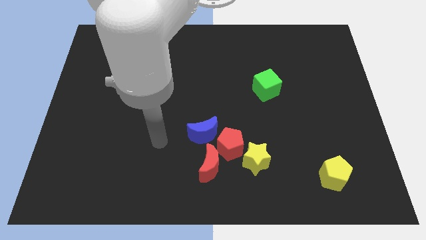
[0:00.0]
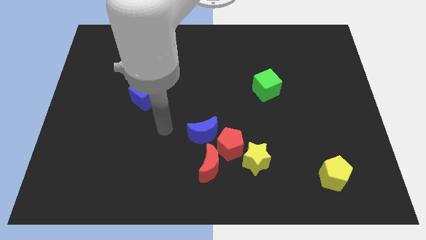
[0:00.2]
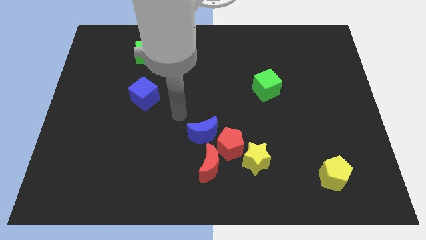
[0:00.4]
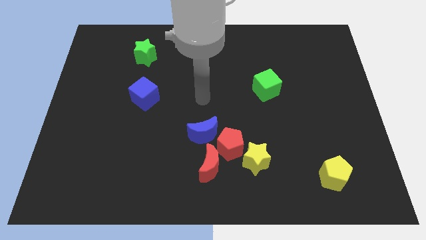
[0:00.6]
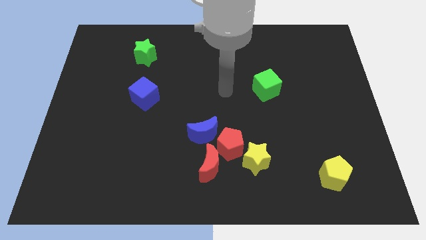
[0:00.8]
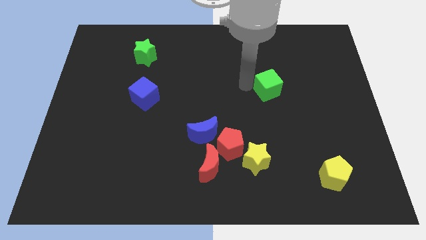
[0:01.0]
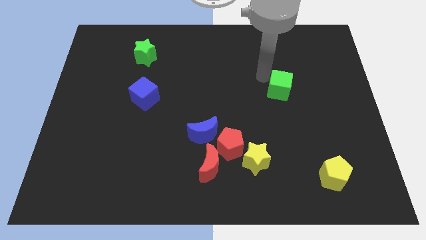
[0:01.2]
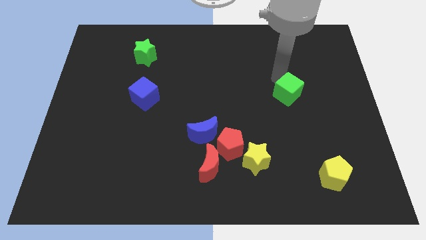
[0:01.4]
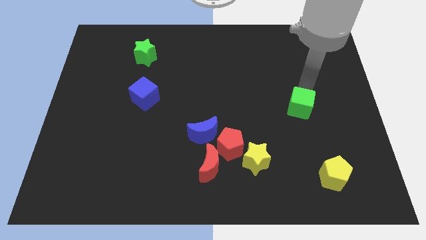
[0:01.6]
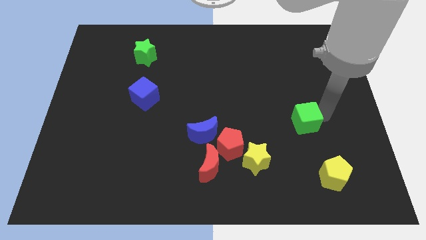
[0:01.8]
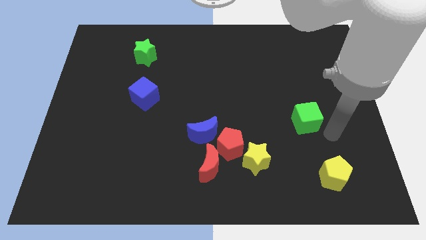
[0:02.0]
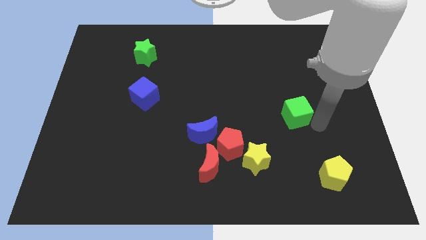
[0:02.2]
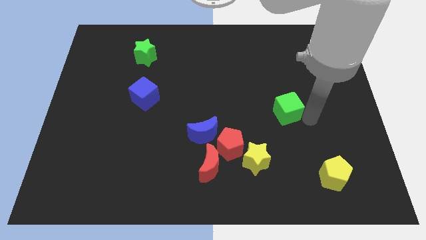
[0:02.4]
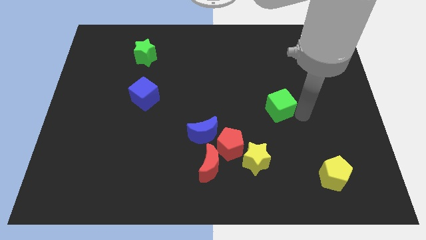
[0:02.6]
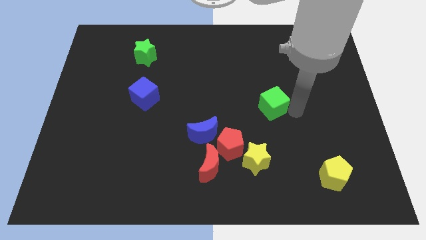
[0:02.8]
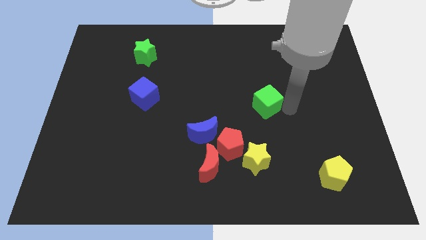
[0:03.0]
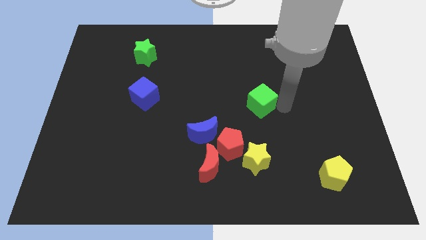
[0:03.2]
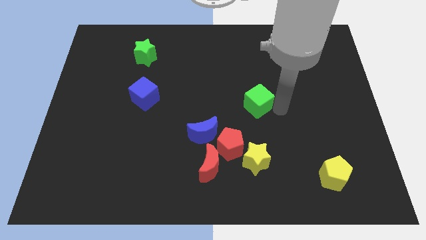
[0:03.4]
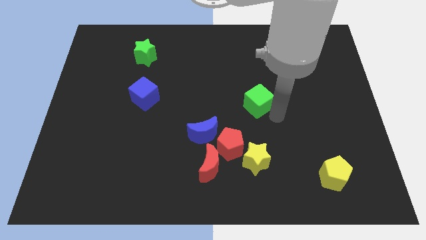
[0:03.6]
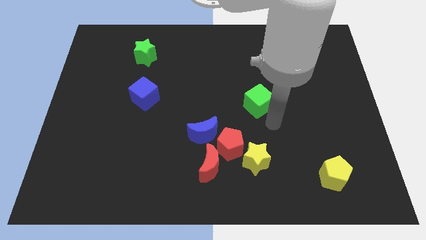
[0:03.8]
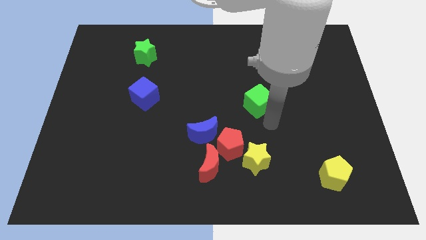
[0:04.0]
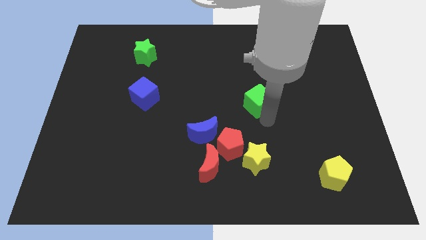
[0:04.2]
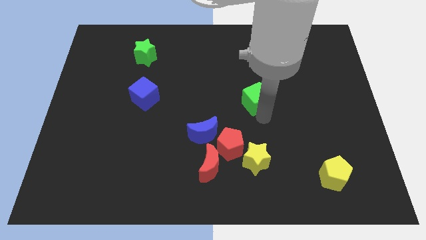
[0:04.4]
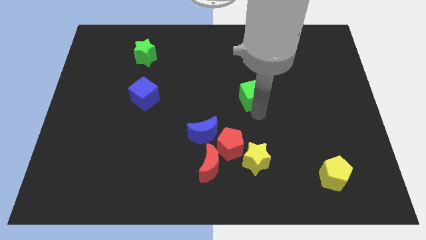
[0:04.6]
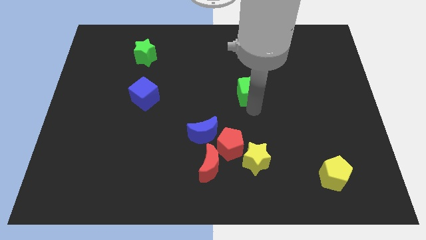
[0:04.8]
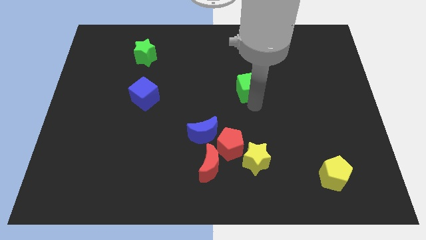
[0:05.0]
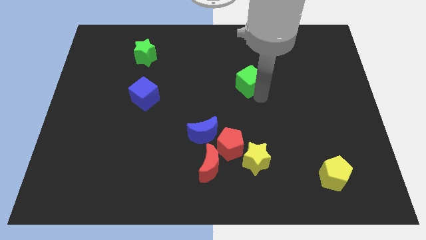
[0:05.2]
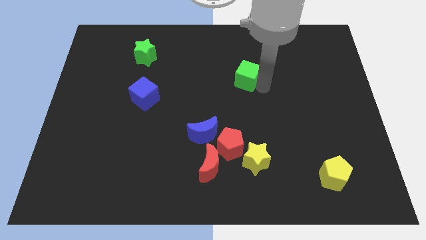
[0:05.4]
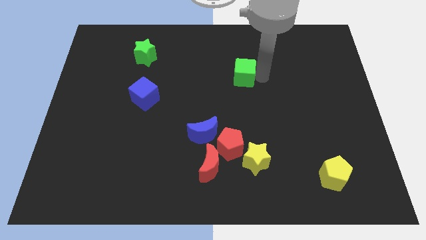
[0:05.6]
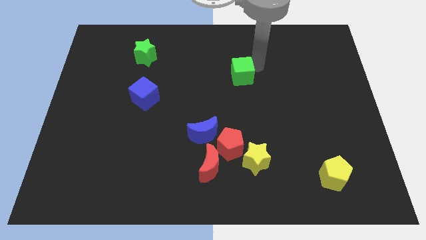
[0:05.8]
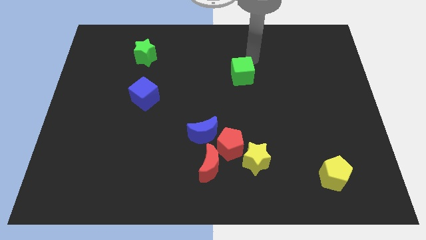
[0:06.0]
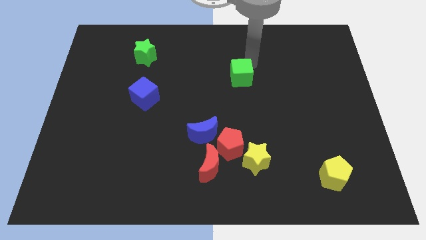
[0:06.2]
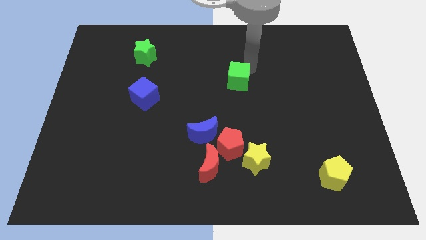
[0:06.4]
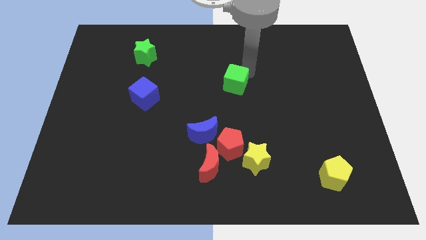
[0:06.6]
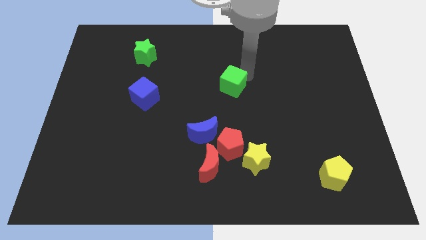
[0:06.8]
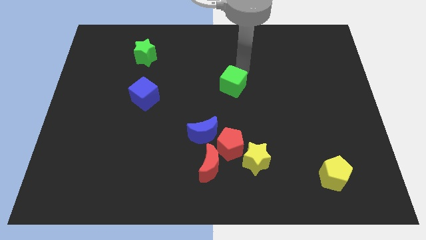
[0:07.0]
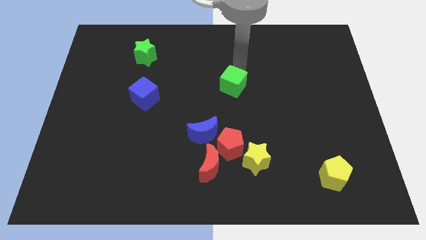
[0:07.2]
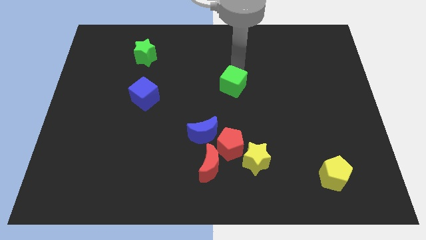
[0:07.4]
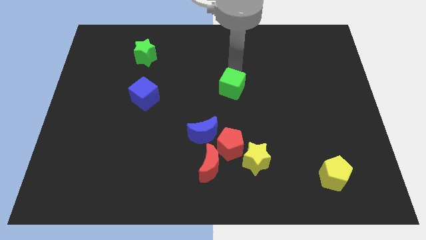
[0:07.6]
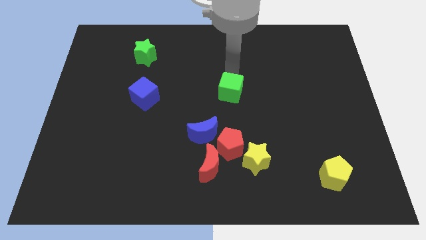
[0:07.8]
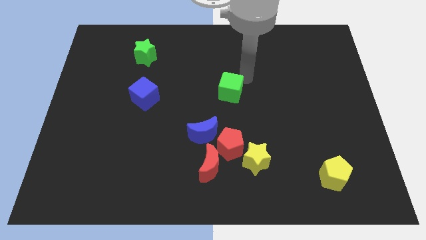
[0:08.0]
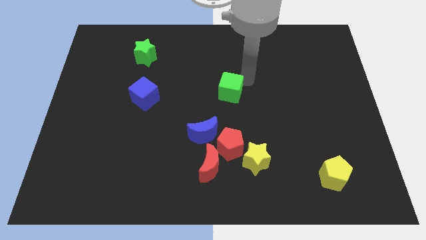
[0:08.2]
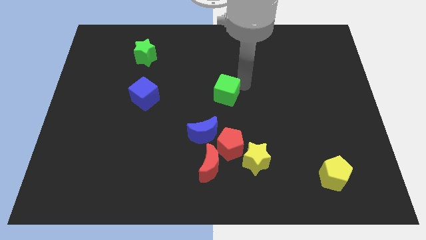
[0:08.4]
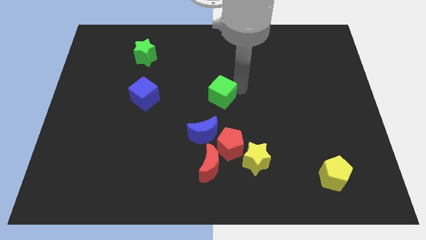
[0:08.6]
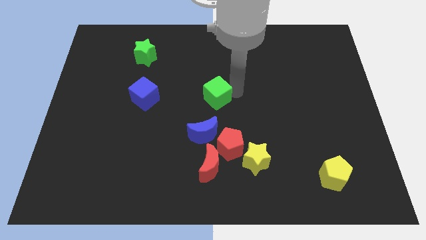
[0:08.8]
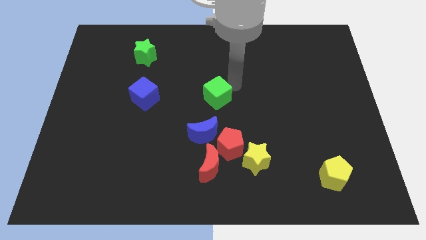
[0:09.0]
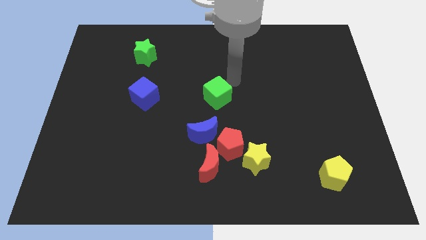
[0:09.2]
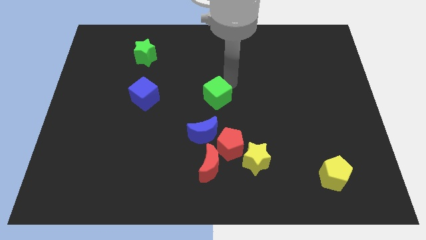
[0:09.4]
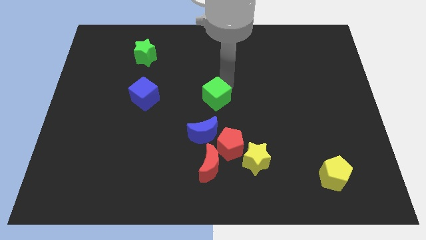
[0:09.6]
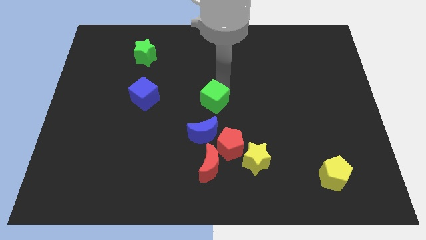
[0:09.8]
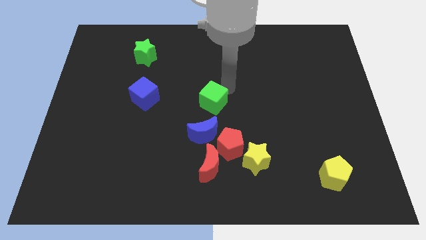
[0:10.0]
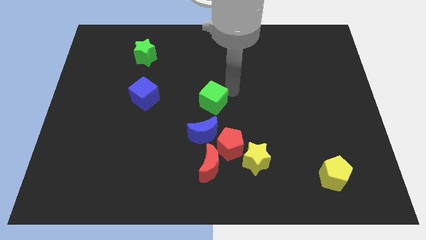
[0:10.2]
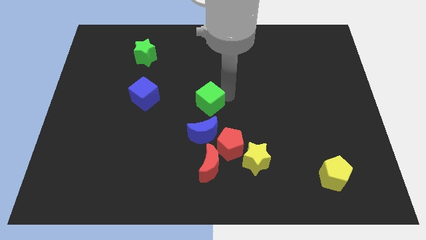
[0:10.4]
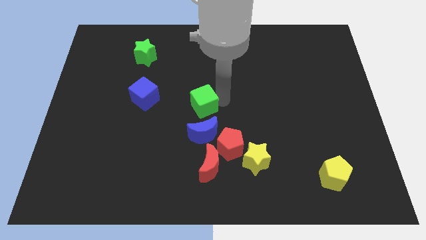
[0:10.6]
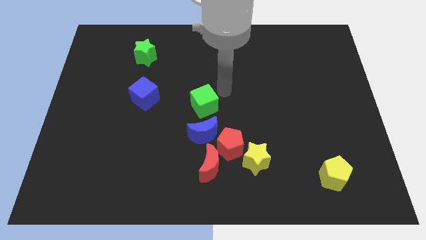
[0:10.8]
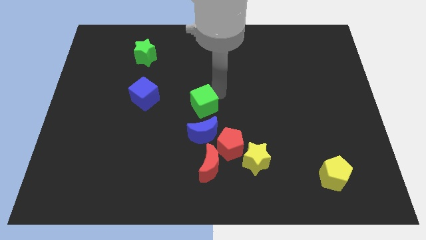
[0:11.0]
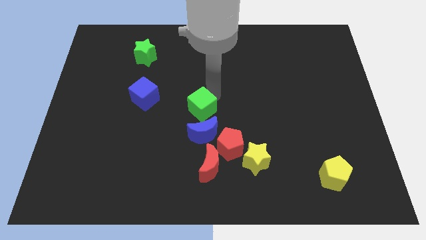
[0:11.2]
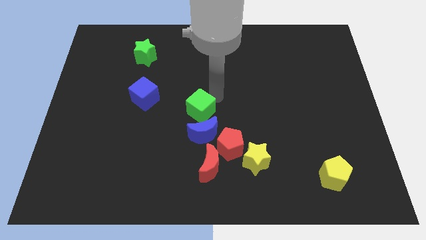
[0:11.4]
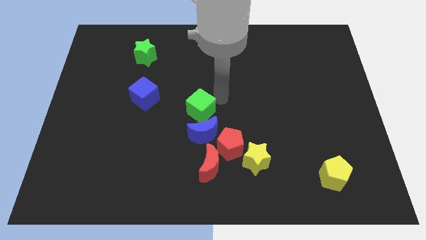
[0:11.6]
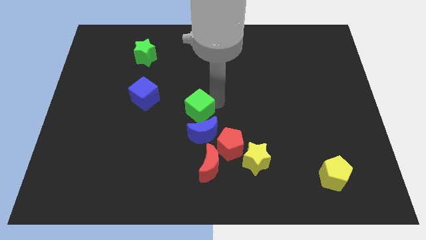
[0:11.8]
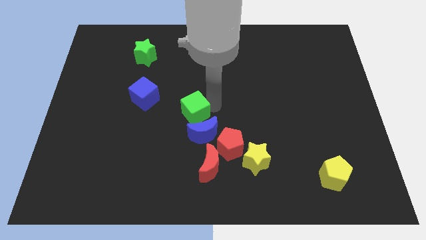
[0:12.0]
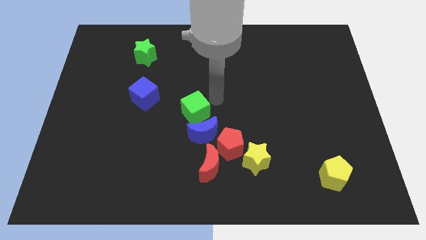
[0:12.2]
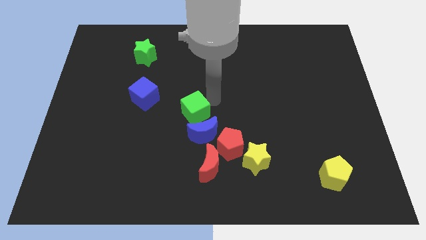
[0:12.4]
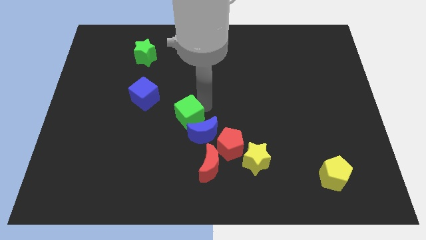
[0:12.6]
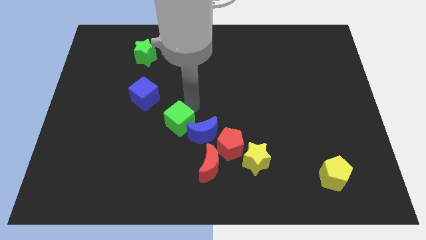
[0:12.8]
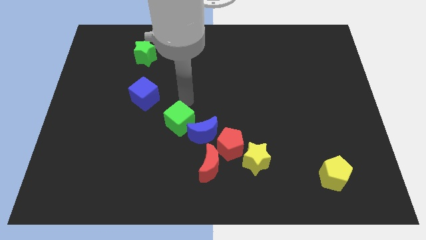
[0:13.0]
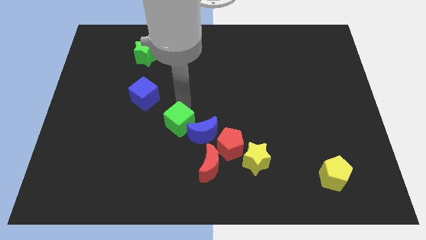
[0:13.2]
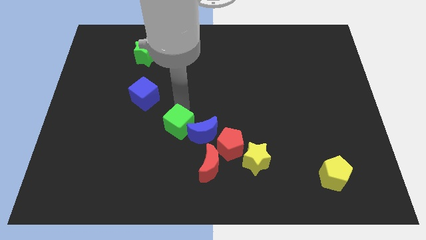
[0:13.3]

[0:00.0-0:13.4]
move the green cube down and left

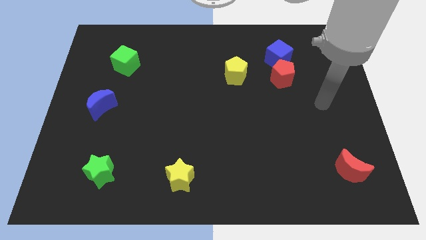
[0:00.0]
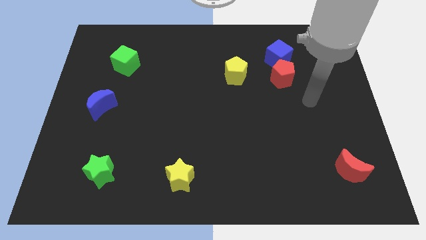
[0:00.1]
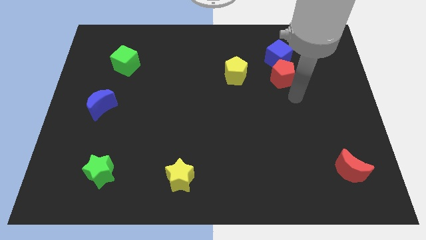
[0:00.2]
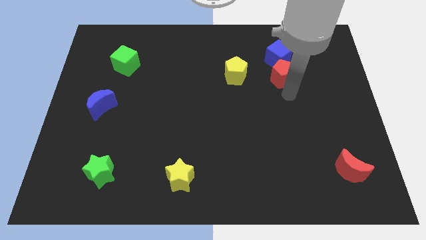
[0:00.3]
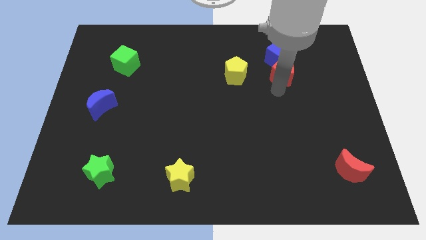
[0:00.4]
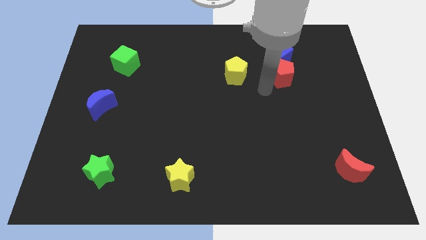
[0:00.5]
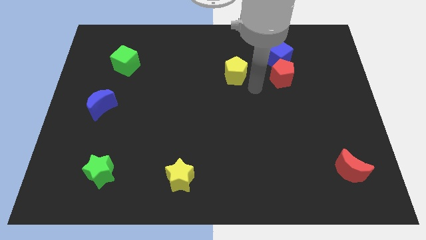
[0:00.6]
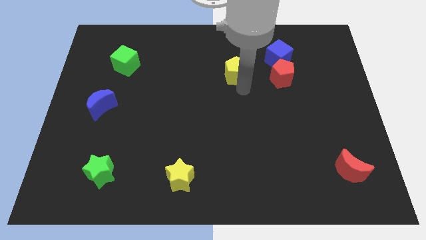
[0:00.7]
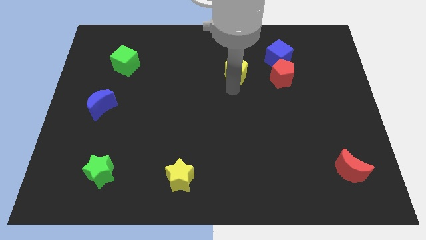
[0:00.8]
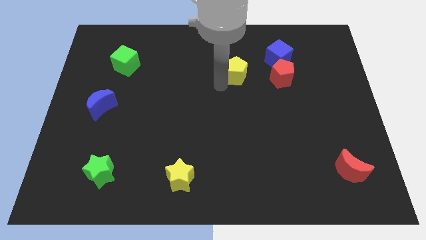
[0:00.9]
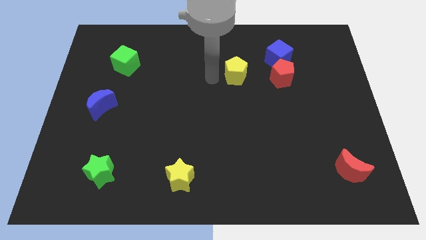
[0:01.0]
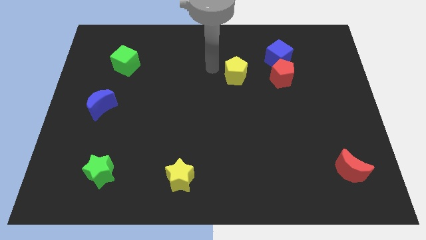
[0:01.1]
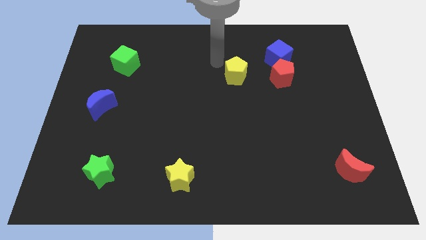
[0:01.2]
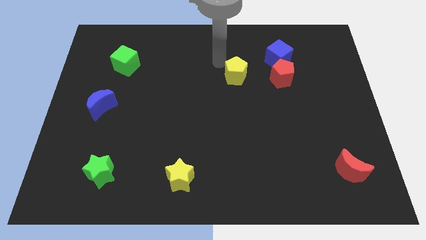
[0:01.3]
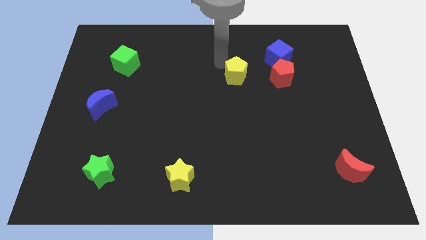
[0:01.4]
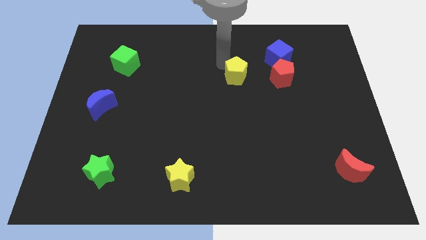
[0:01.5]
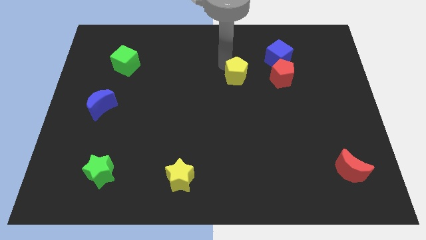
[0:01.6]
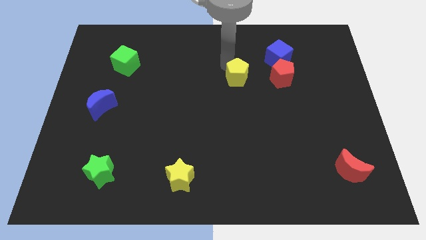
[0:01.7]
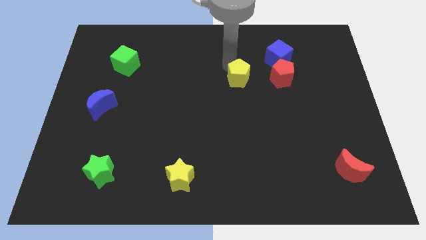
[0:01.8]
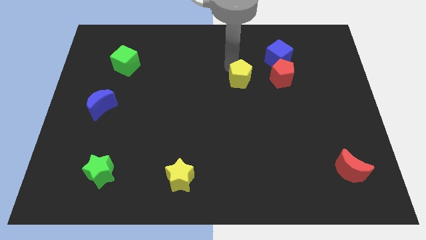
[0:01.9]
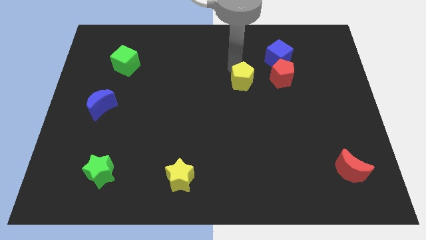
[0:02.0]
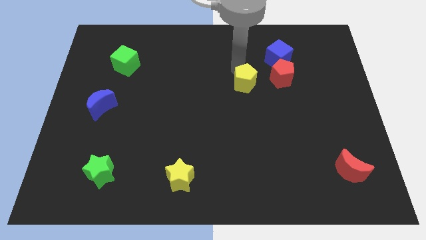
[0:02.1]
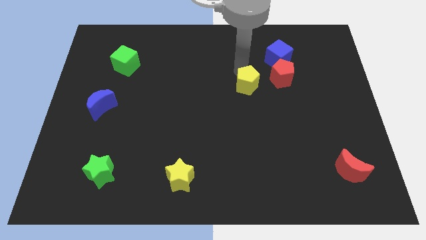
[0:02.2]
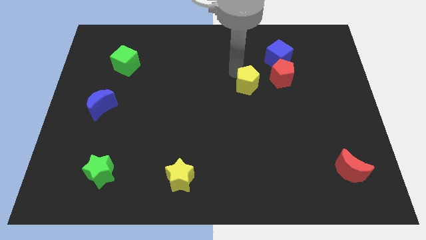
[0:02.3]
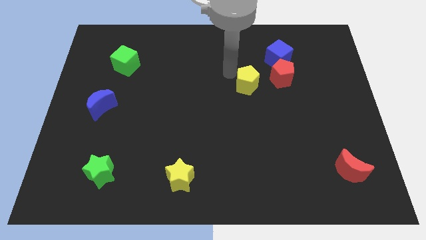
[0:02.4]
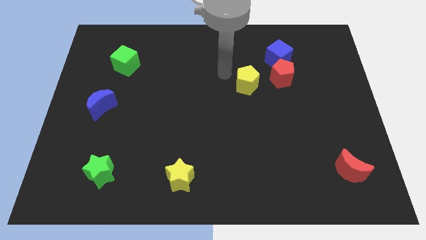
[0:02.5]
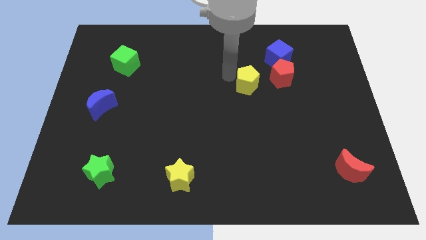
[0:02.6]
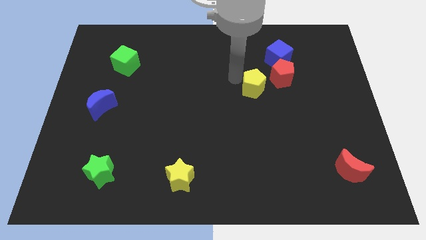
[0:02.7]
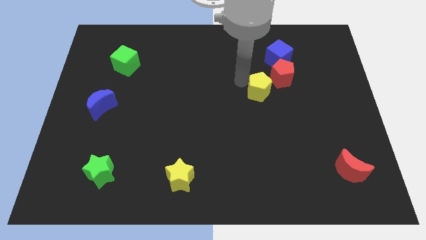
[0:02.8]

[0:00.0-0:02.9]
slide the yellow pentagon down and right slightly
